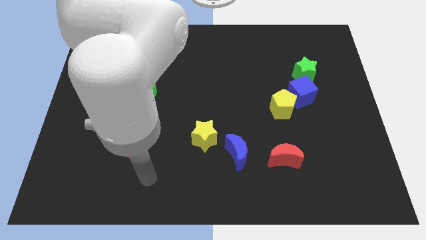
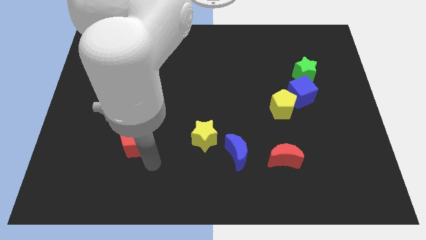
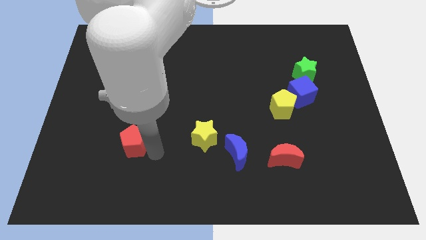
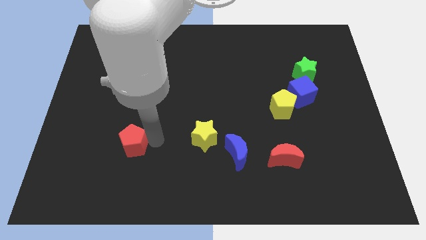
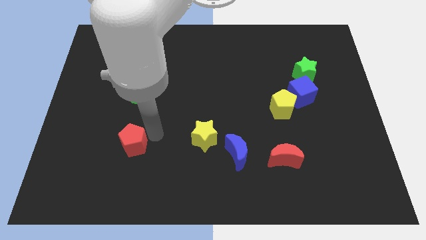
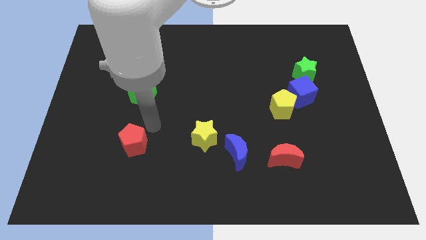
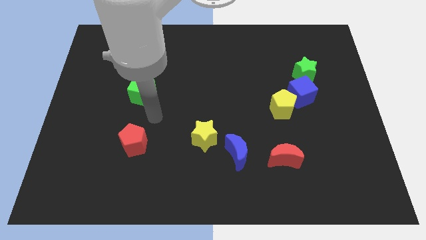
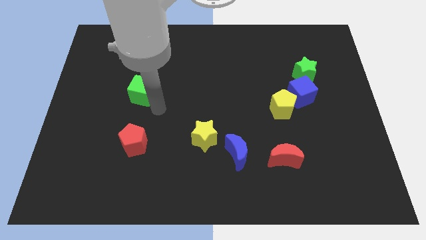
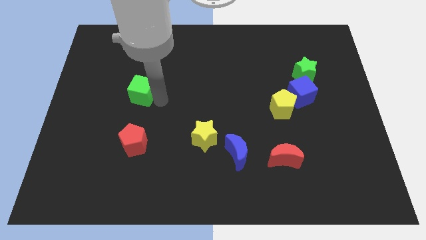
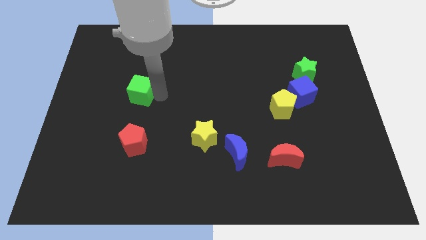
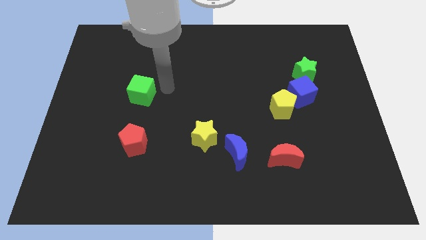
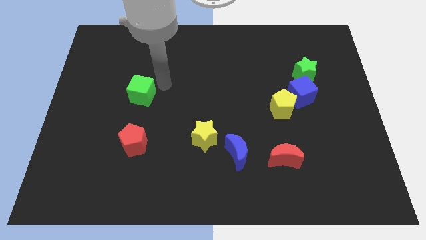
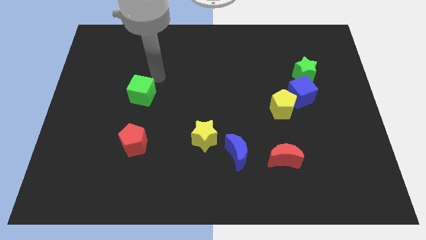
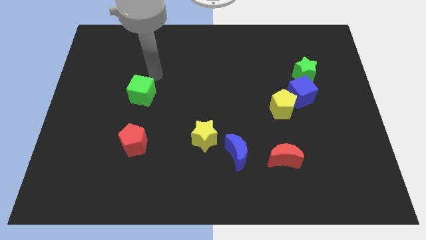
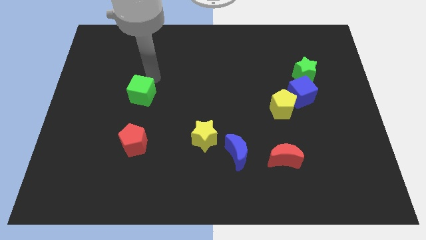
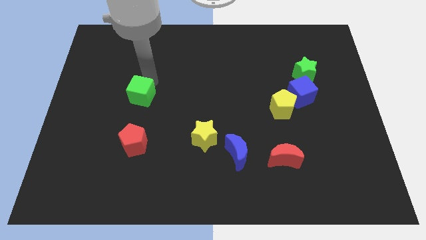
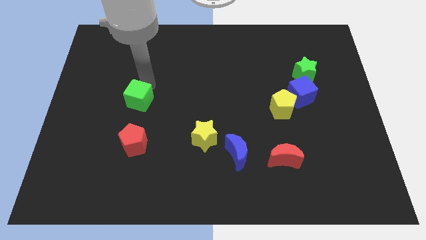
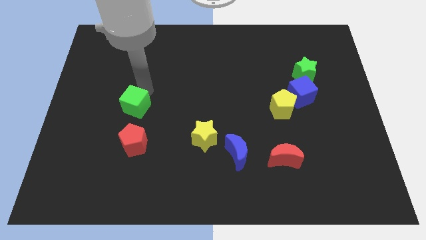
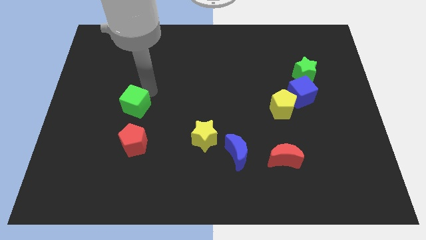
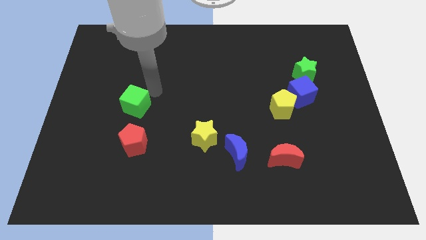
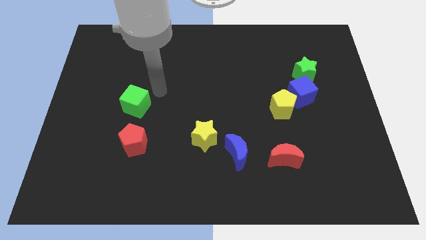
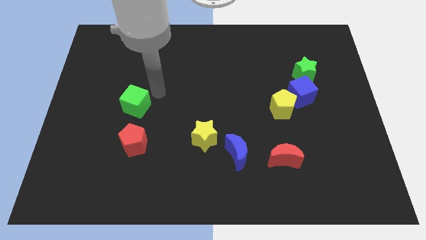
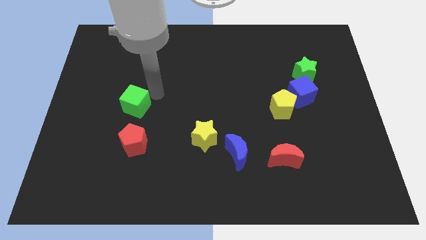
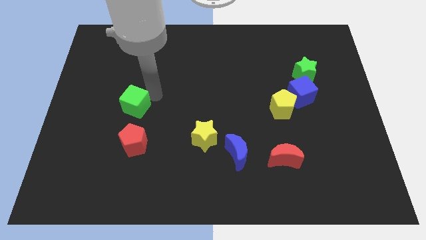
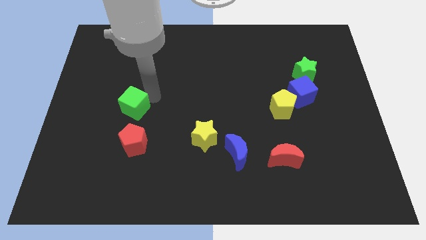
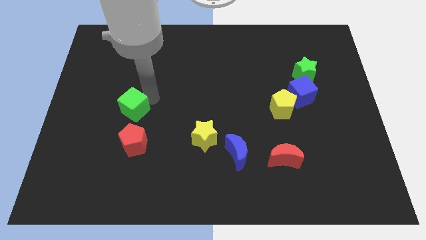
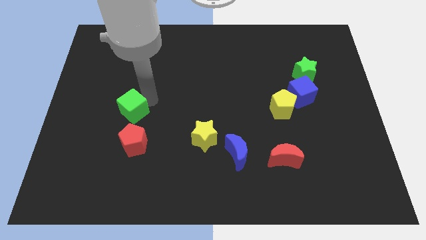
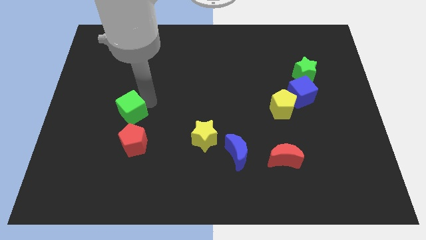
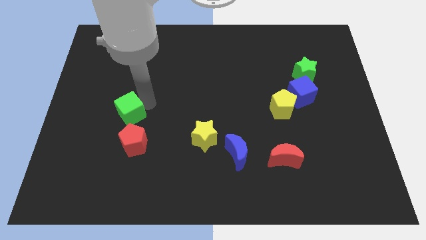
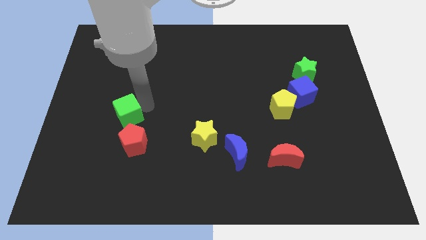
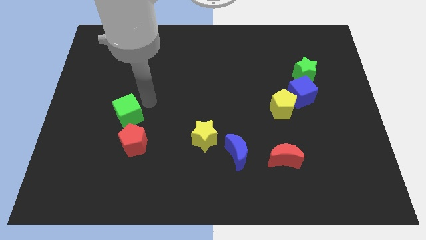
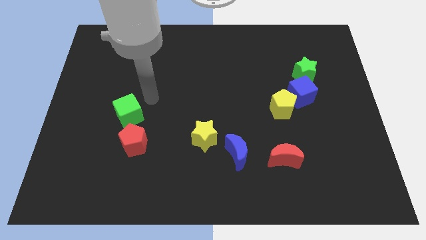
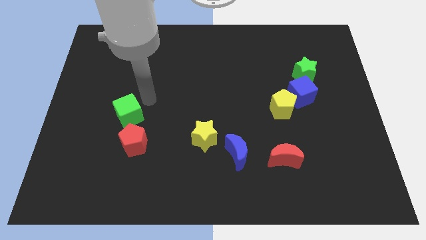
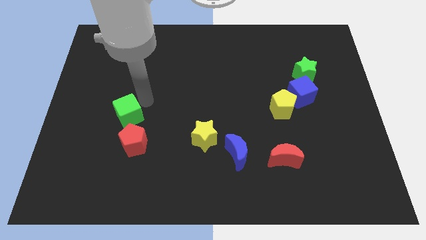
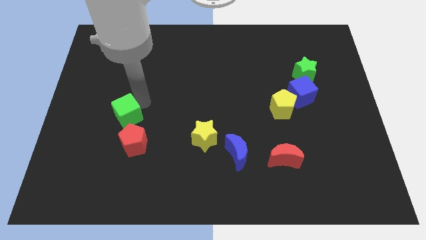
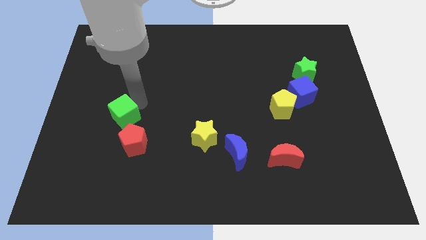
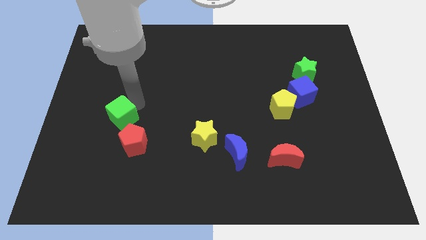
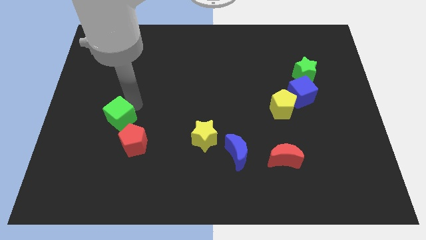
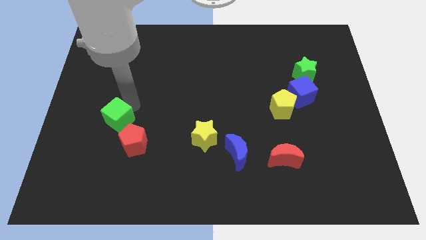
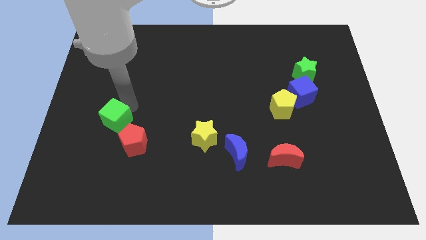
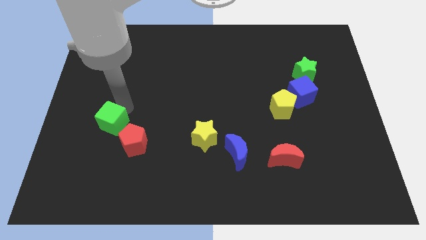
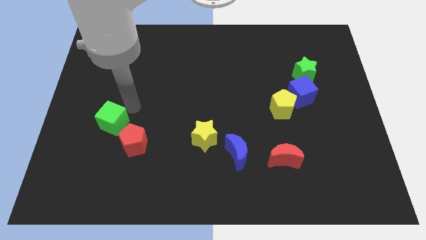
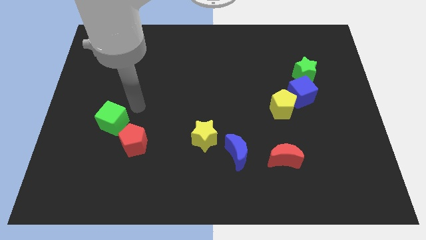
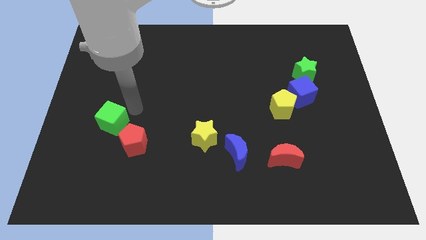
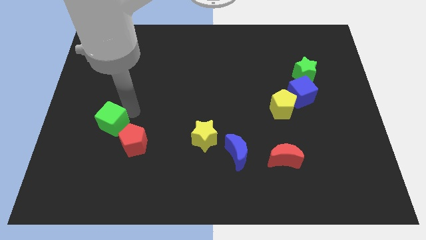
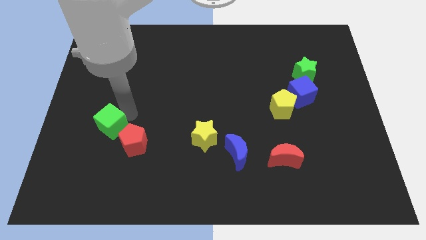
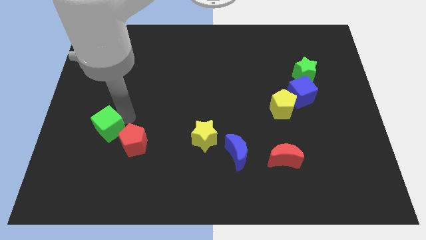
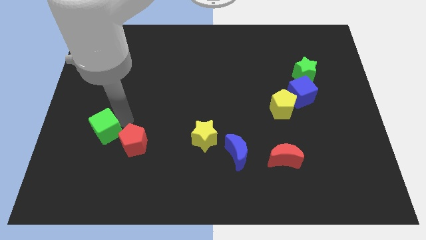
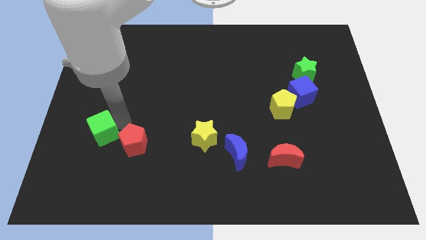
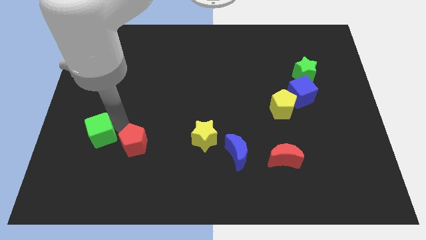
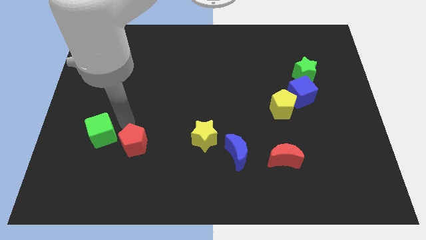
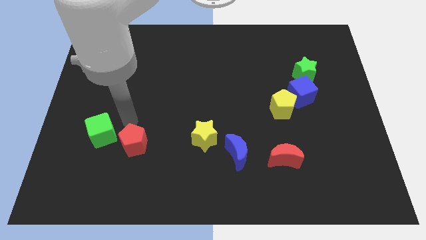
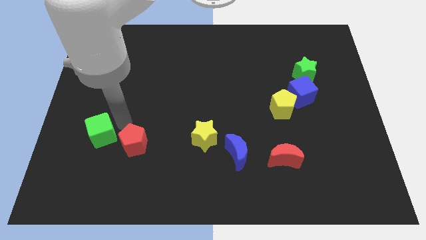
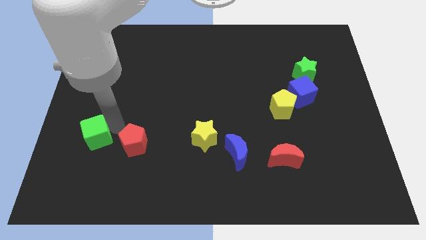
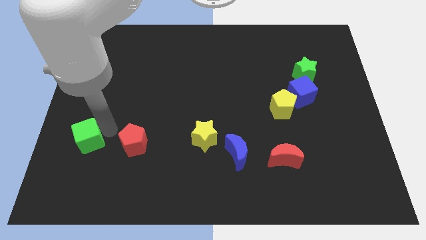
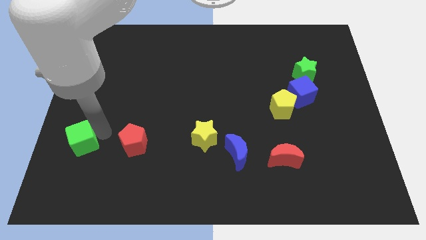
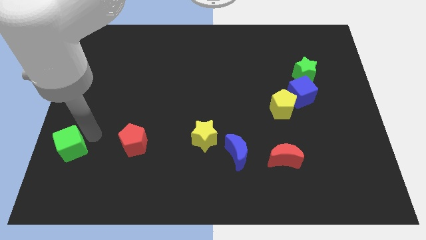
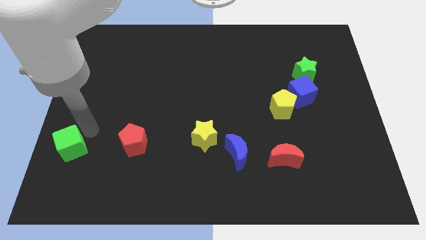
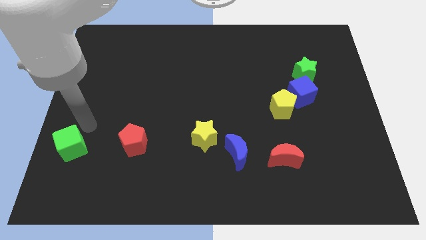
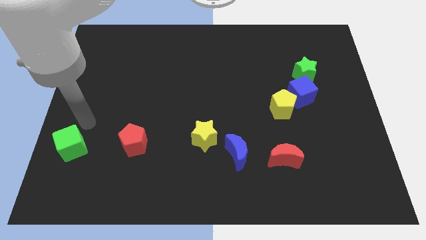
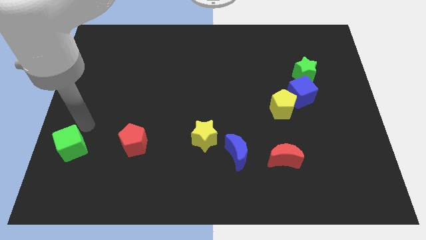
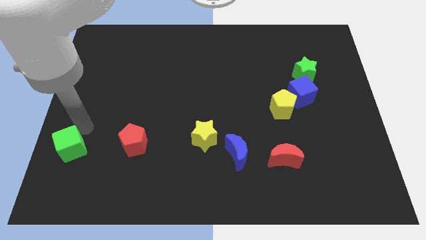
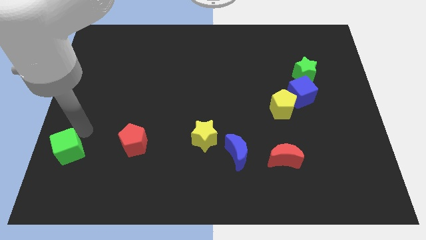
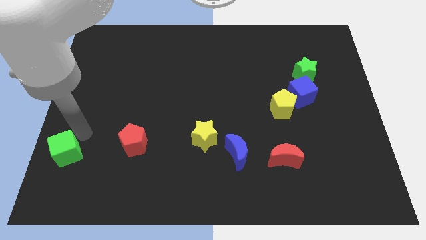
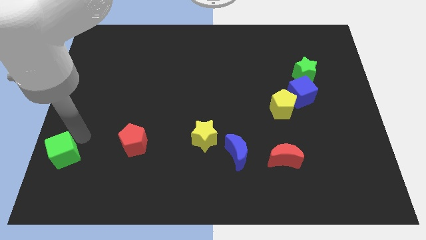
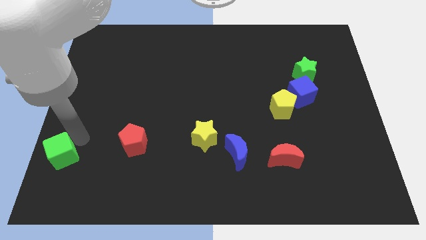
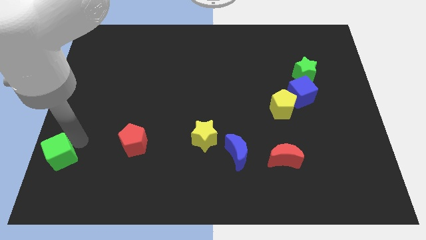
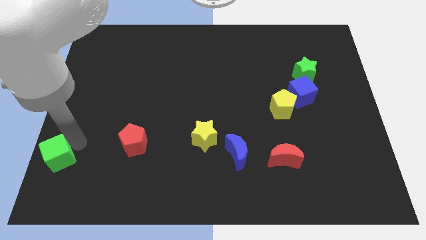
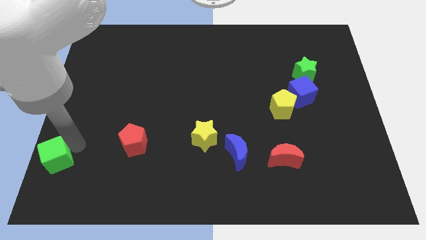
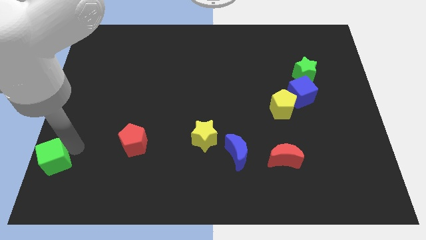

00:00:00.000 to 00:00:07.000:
move the green cube to the bottom left of the board

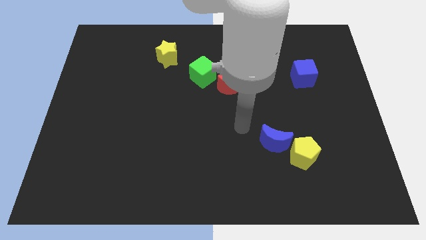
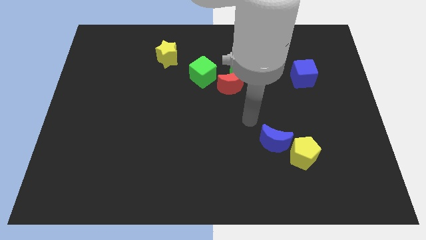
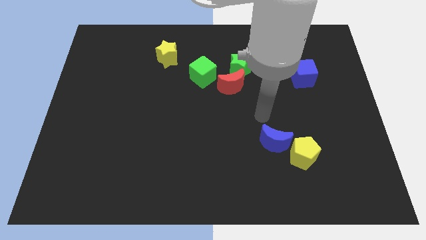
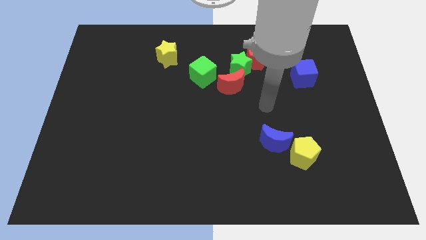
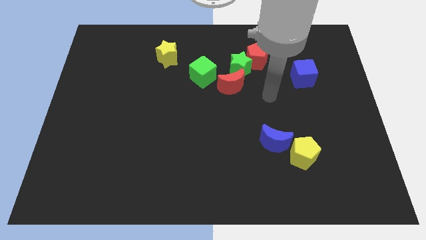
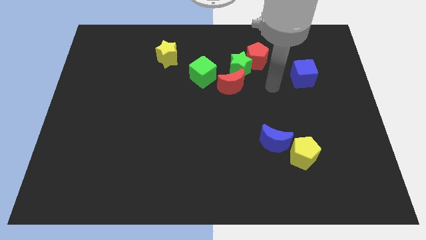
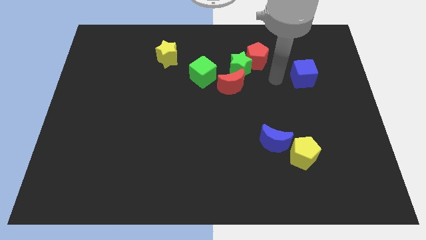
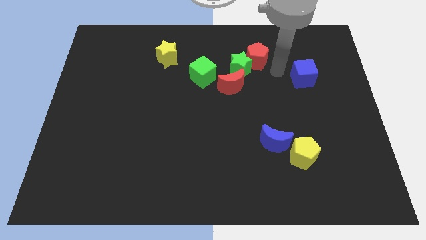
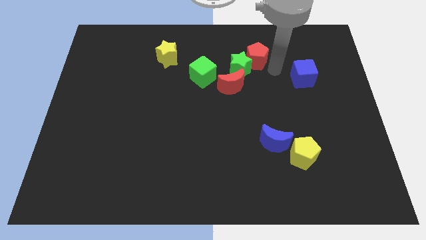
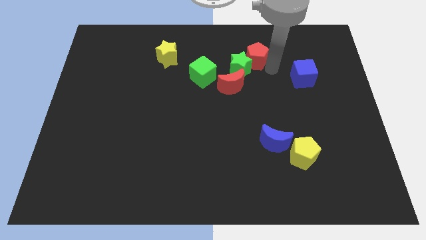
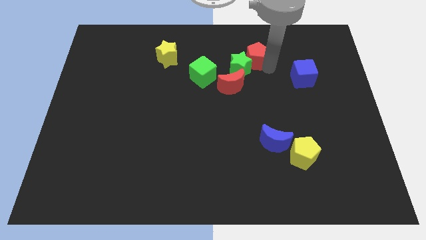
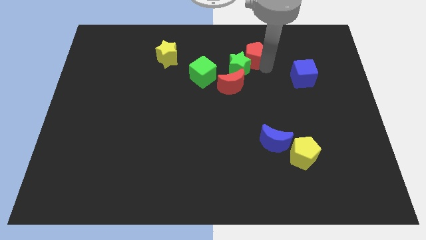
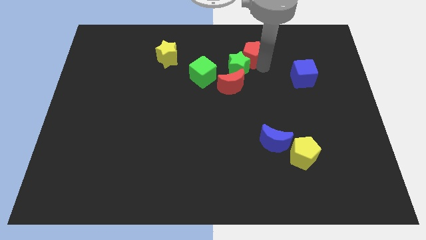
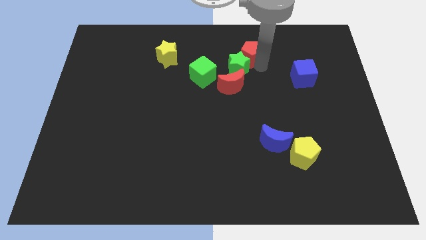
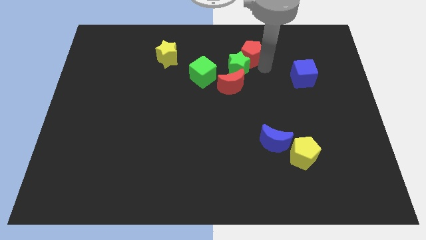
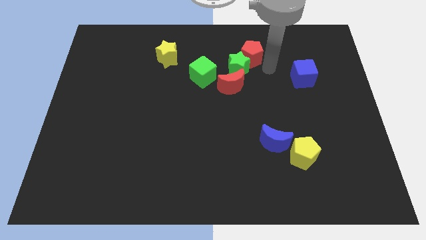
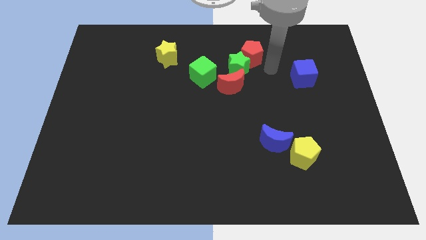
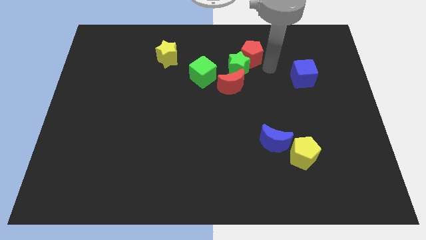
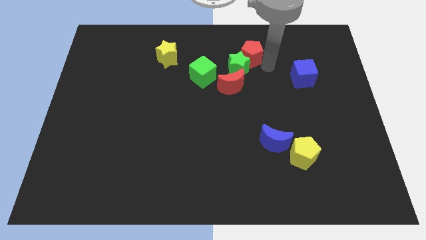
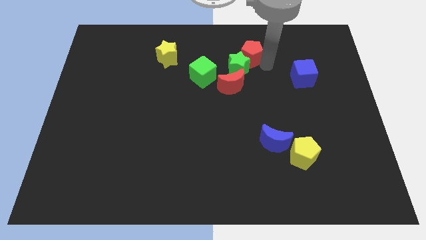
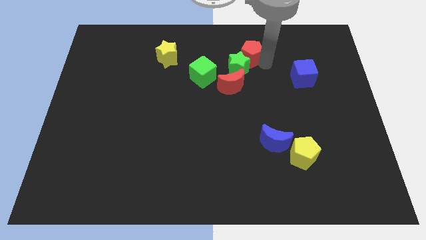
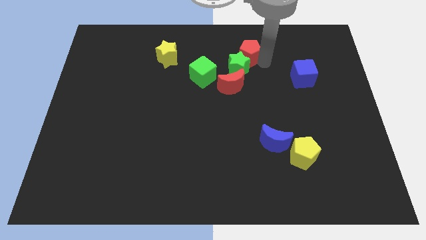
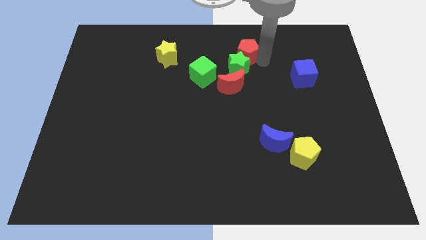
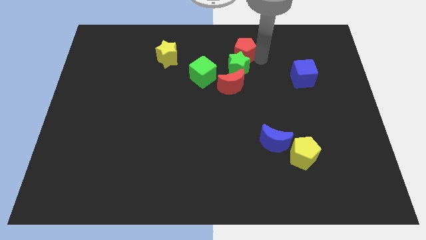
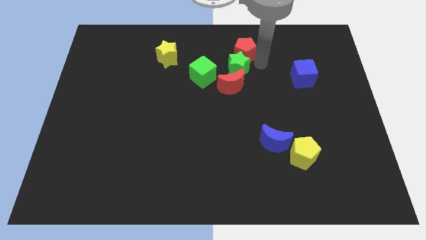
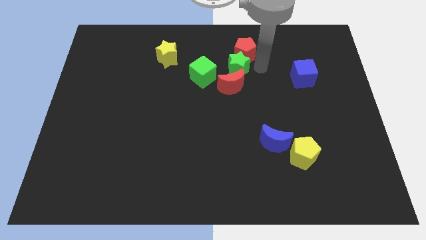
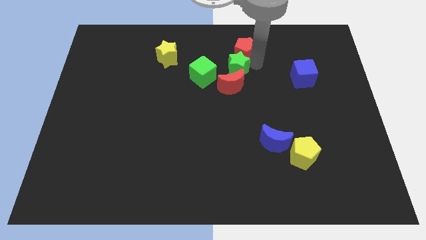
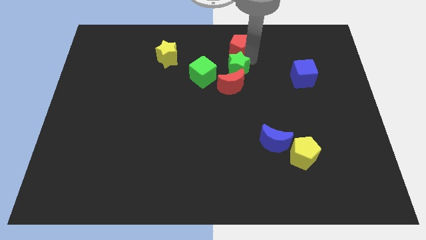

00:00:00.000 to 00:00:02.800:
put the red pentagon to the top
